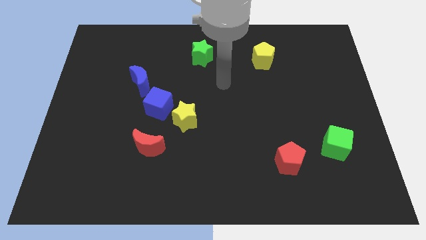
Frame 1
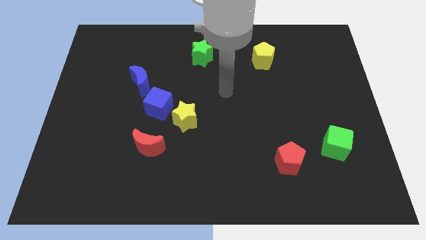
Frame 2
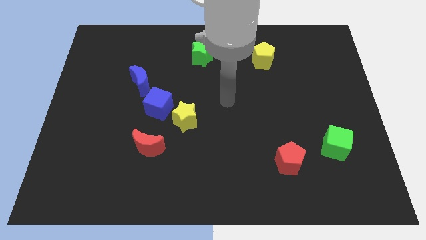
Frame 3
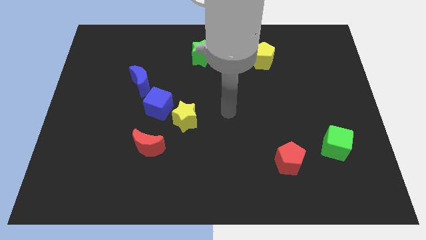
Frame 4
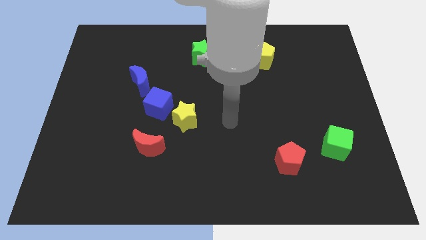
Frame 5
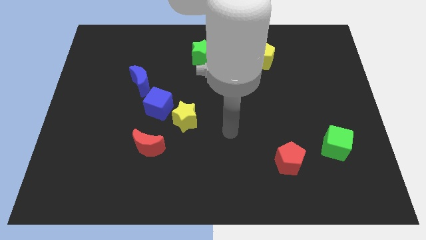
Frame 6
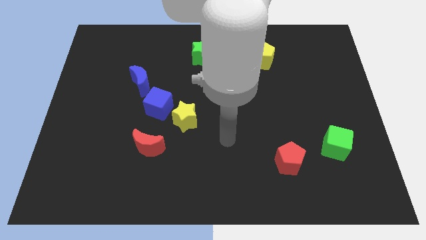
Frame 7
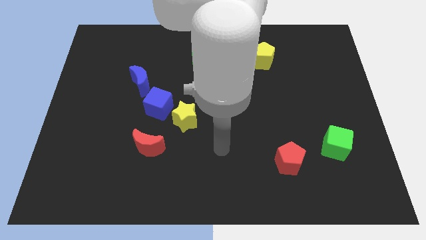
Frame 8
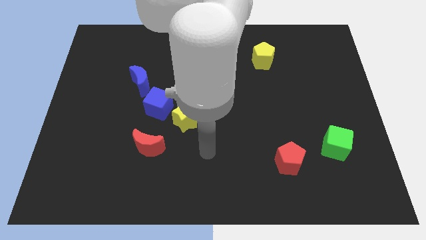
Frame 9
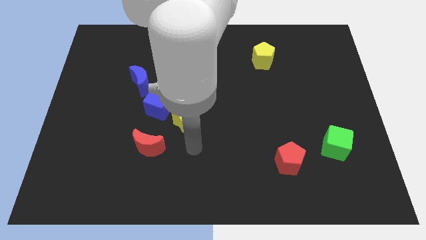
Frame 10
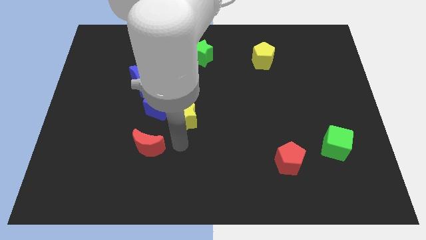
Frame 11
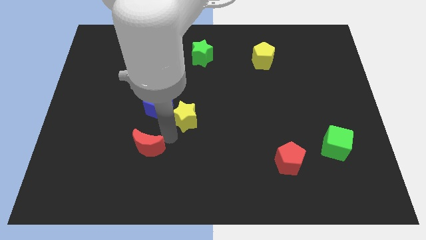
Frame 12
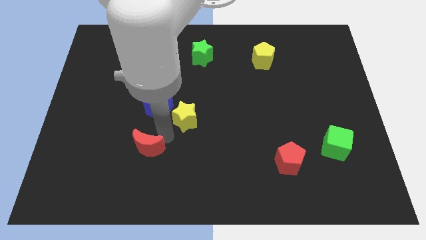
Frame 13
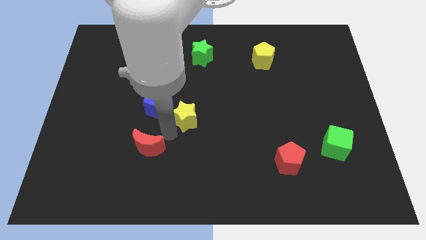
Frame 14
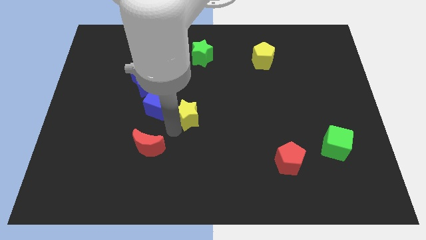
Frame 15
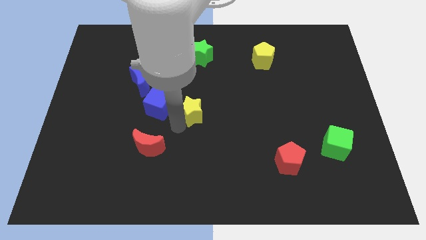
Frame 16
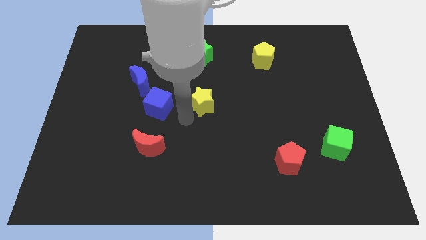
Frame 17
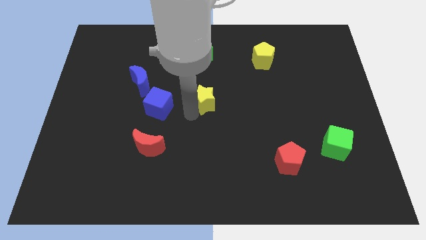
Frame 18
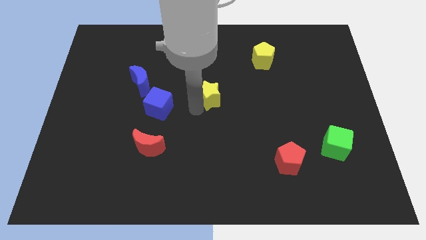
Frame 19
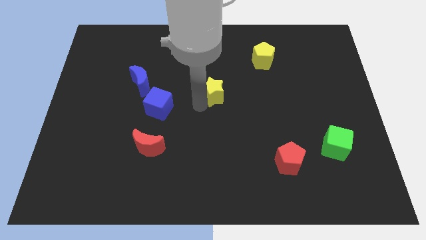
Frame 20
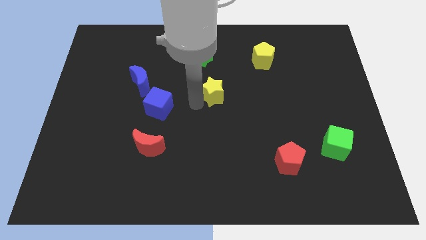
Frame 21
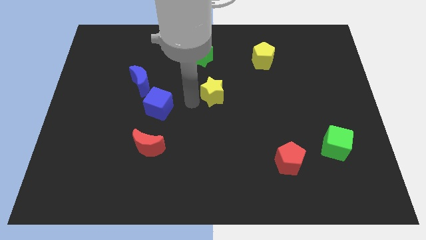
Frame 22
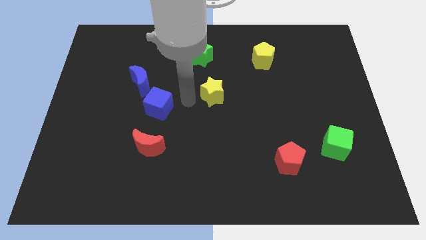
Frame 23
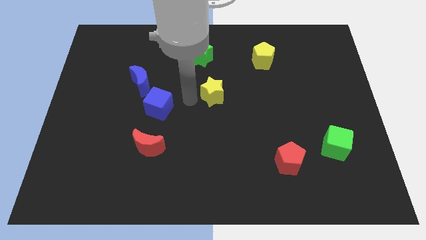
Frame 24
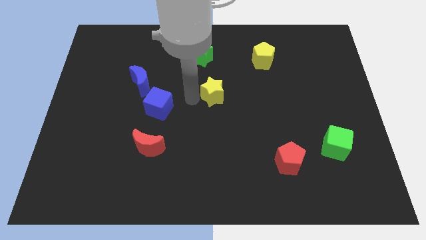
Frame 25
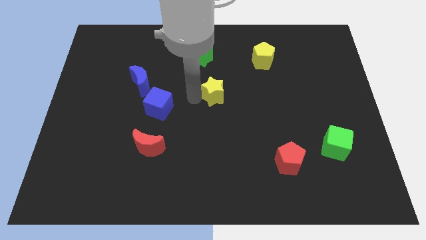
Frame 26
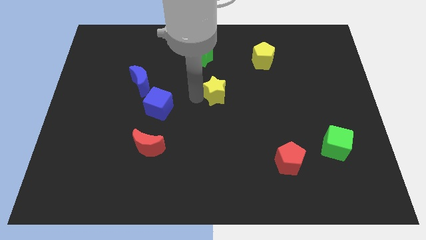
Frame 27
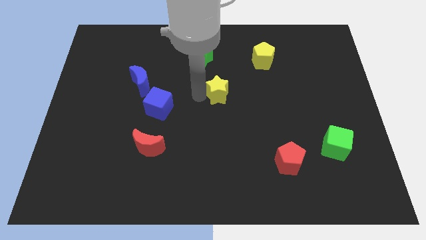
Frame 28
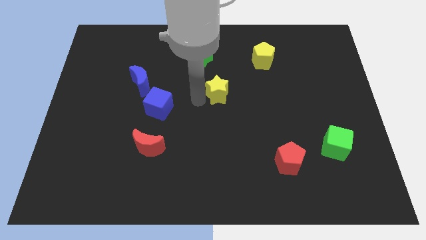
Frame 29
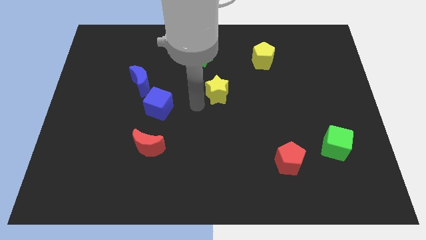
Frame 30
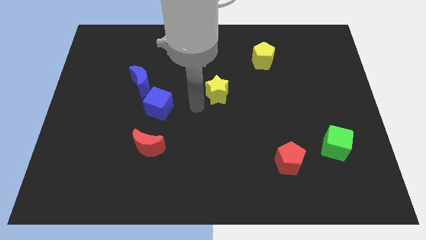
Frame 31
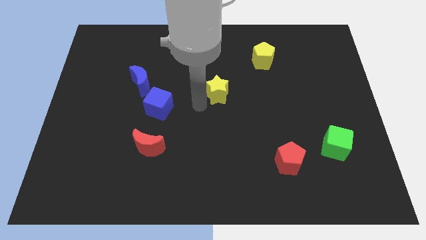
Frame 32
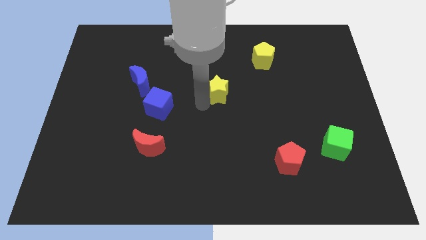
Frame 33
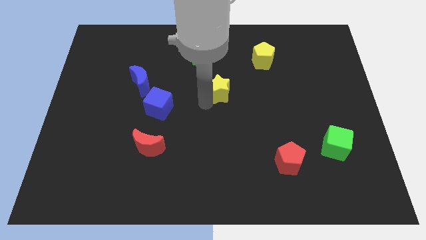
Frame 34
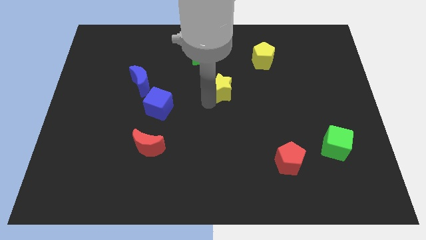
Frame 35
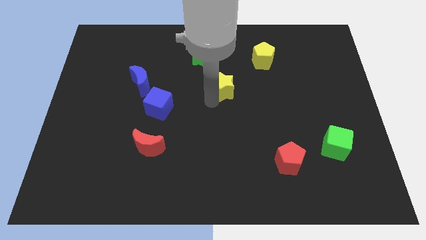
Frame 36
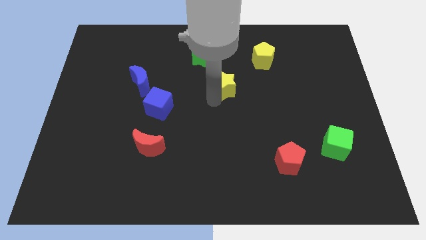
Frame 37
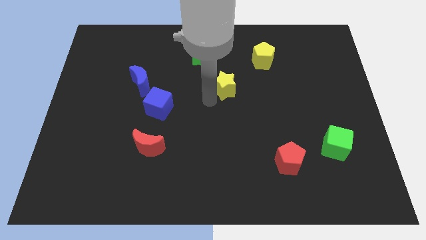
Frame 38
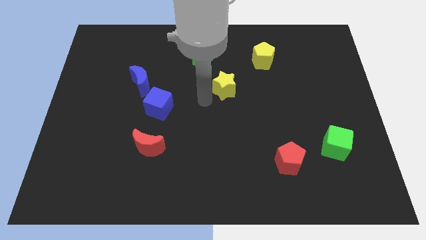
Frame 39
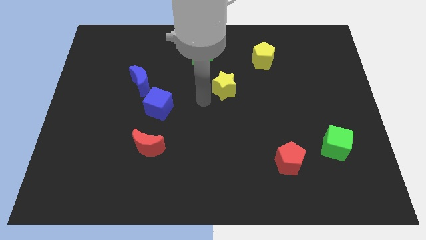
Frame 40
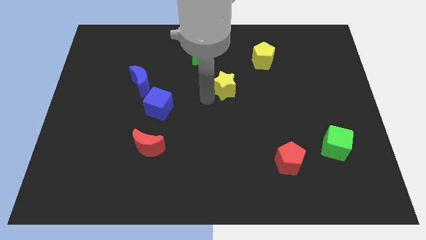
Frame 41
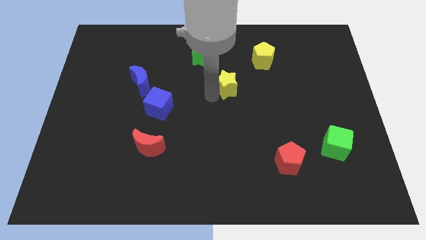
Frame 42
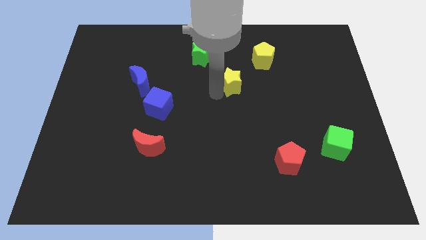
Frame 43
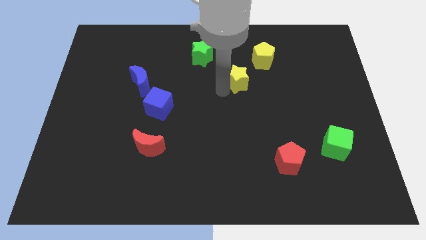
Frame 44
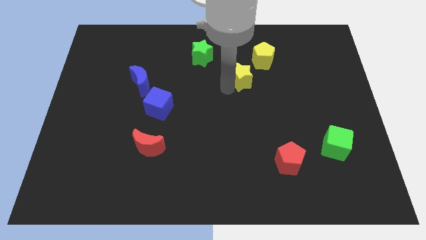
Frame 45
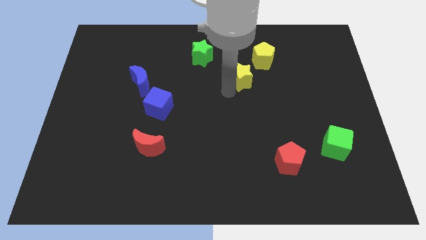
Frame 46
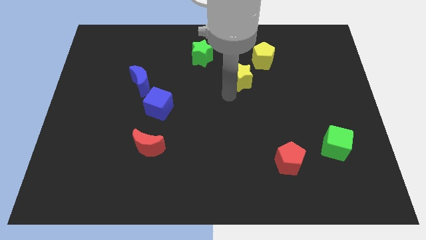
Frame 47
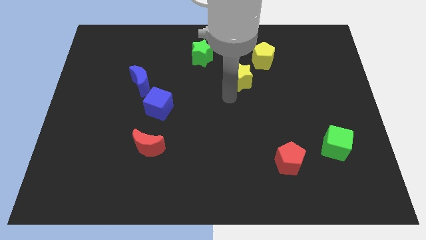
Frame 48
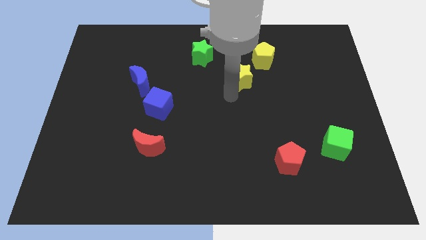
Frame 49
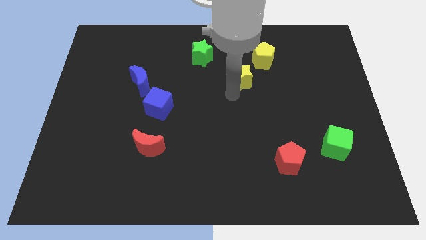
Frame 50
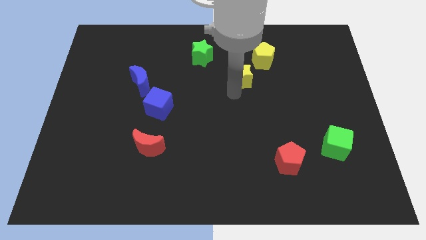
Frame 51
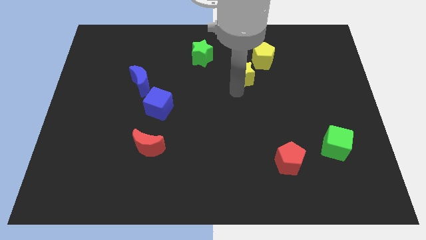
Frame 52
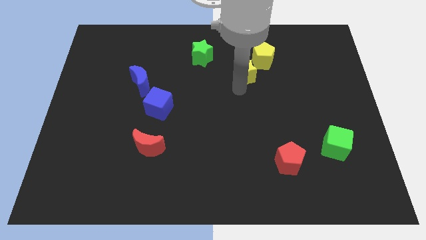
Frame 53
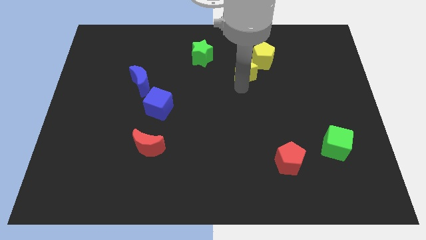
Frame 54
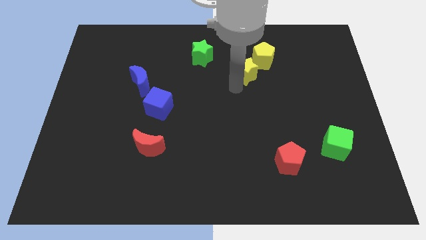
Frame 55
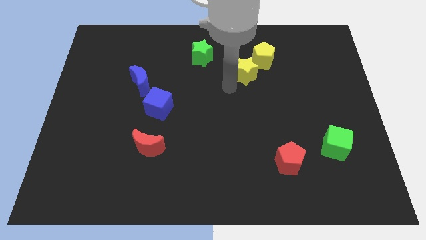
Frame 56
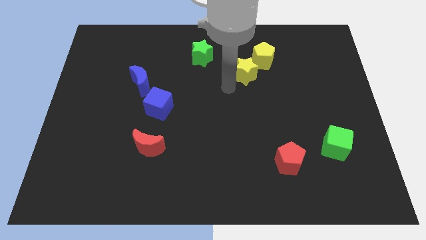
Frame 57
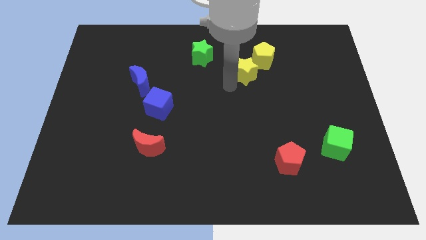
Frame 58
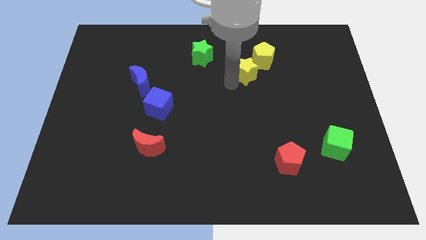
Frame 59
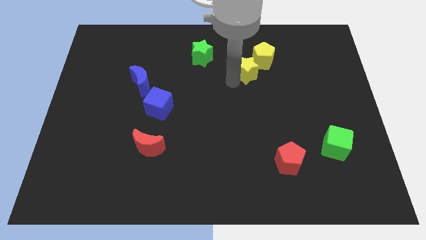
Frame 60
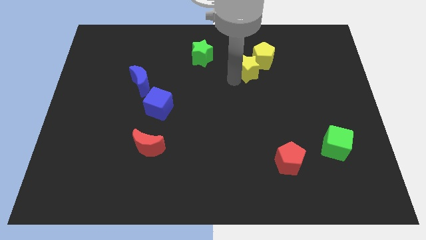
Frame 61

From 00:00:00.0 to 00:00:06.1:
move the yellow star to the yellow pentagon

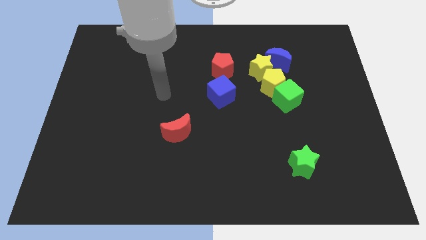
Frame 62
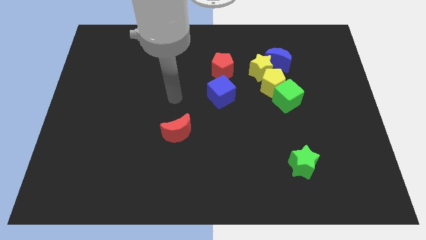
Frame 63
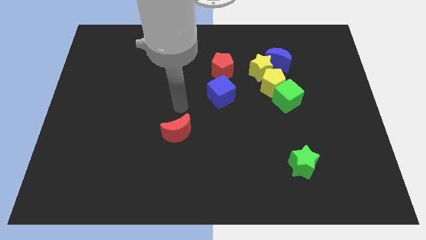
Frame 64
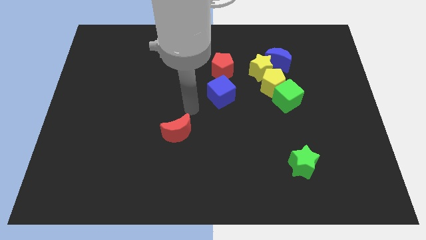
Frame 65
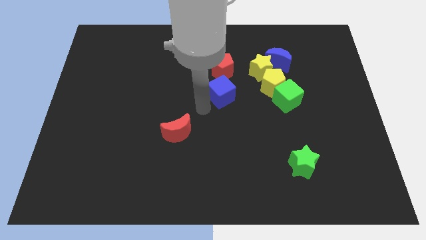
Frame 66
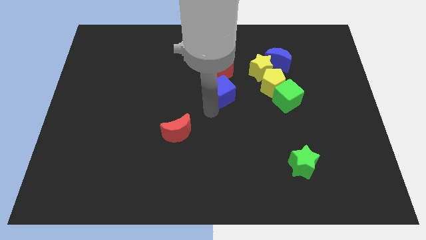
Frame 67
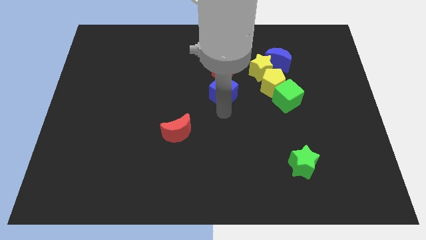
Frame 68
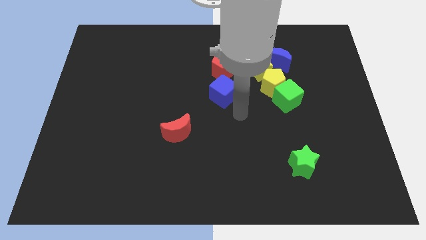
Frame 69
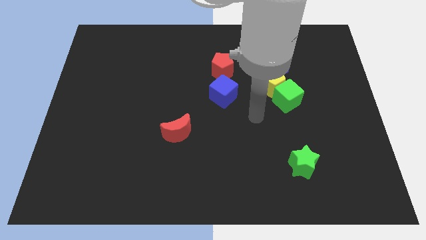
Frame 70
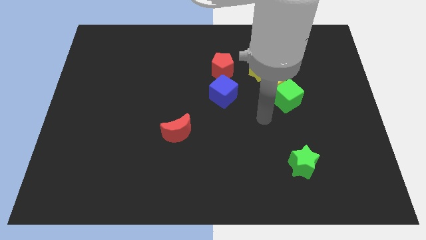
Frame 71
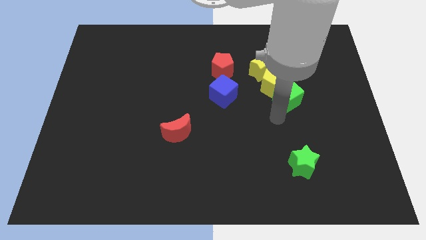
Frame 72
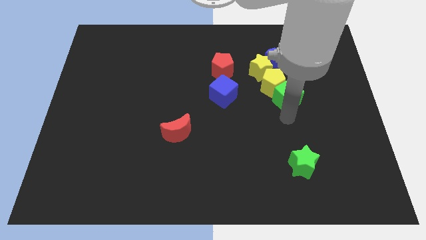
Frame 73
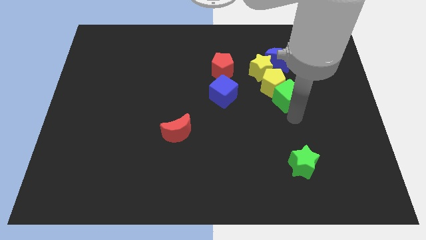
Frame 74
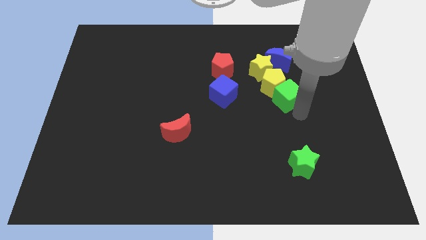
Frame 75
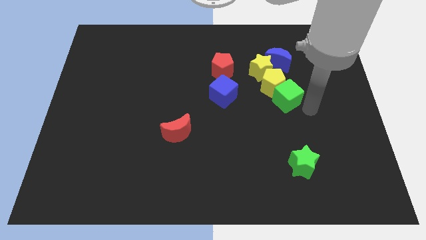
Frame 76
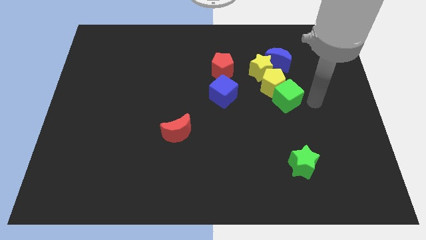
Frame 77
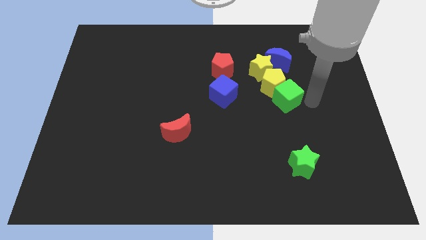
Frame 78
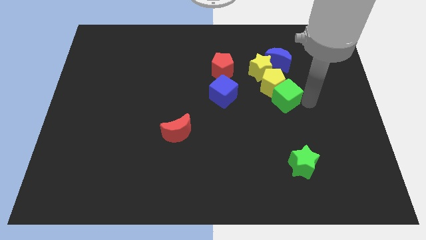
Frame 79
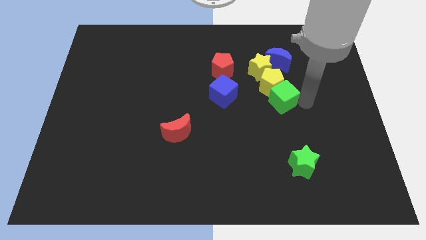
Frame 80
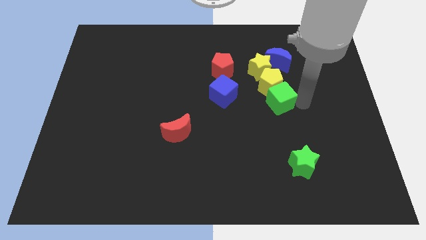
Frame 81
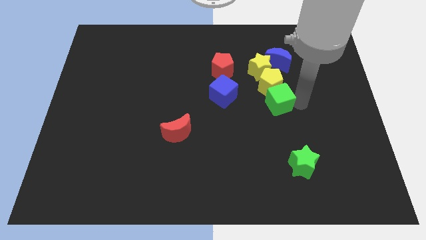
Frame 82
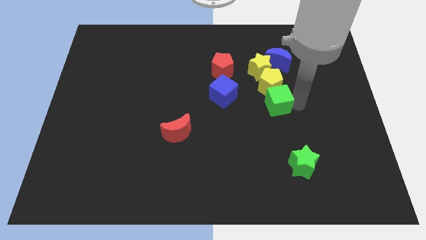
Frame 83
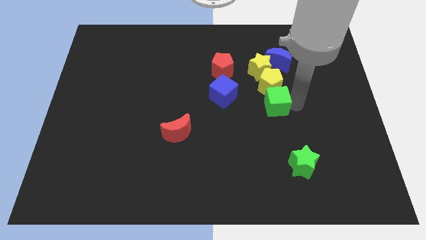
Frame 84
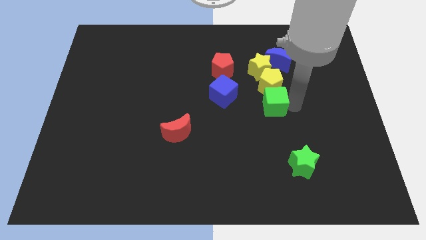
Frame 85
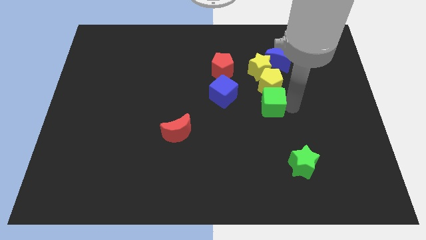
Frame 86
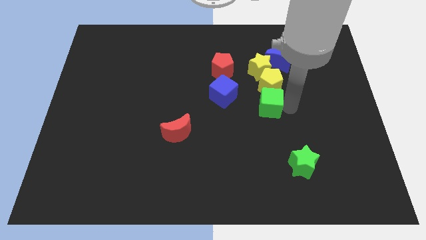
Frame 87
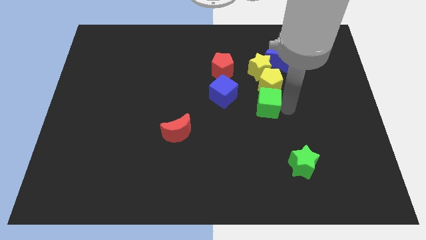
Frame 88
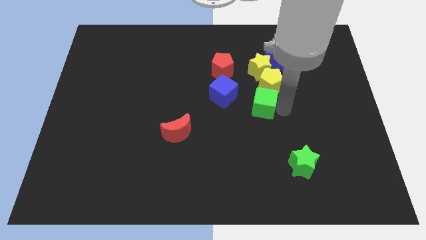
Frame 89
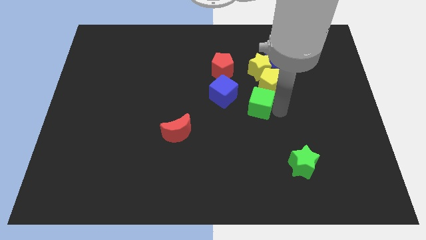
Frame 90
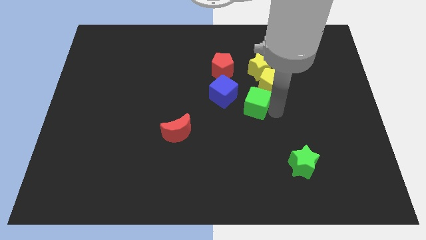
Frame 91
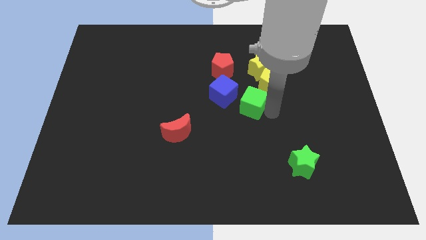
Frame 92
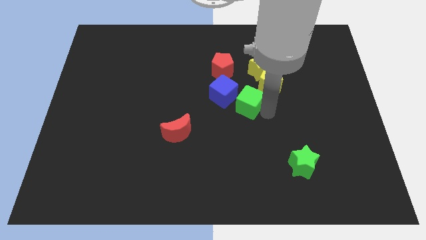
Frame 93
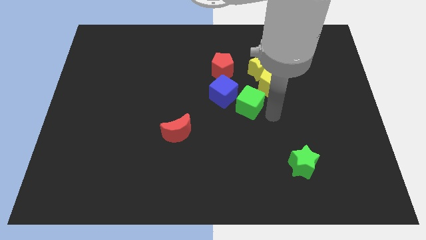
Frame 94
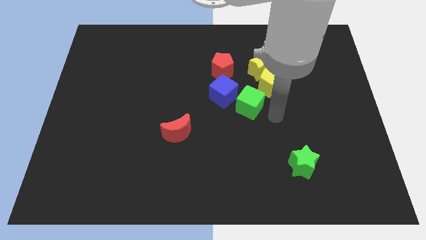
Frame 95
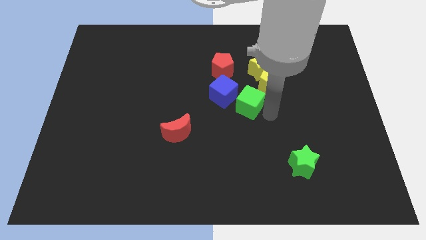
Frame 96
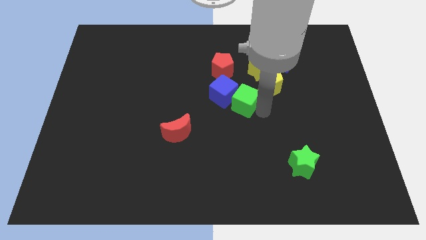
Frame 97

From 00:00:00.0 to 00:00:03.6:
push the green cube next to the blue cube
